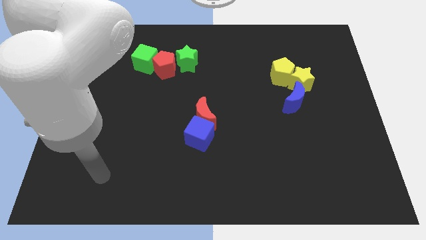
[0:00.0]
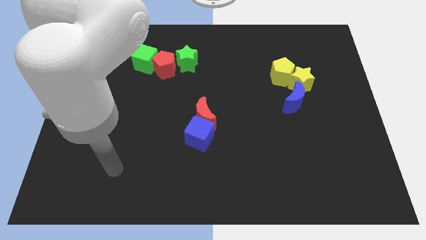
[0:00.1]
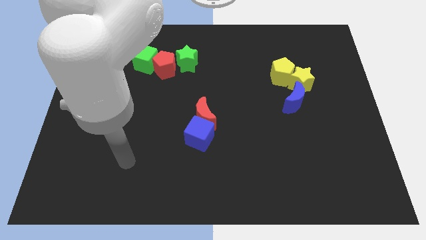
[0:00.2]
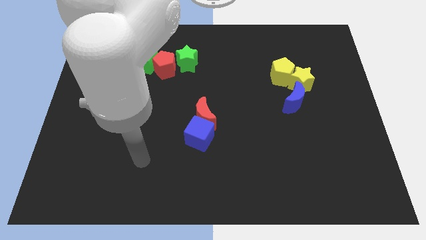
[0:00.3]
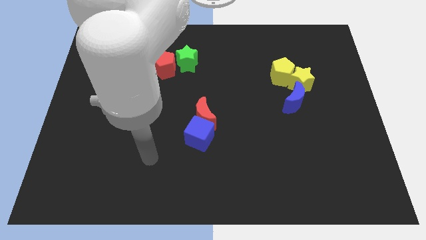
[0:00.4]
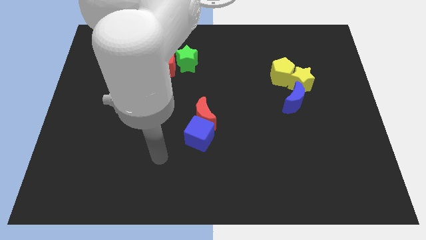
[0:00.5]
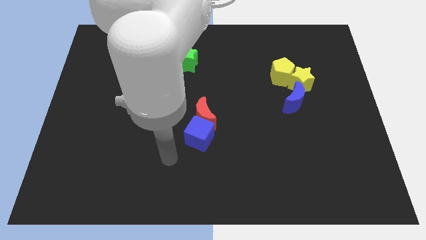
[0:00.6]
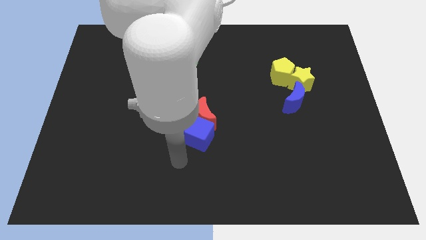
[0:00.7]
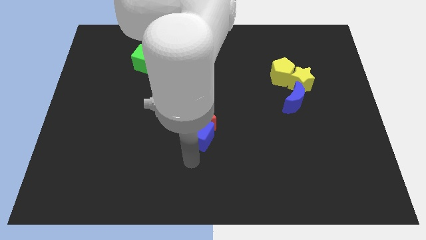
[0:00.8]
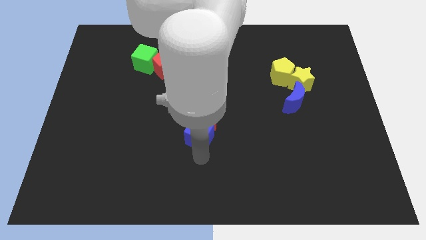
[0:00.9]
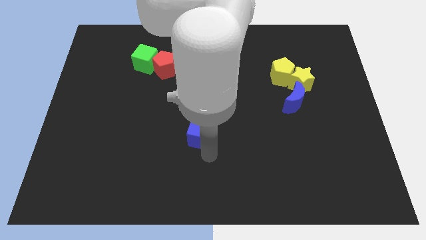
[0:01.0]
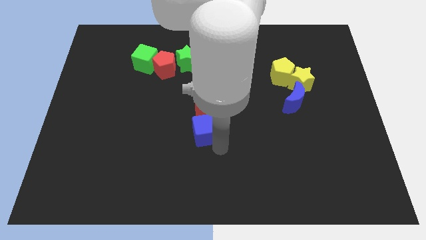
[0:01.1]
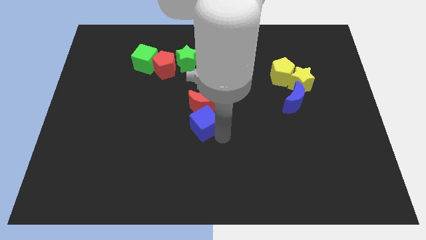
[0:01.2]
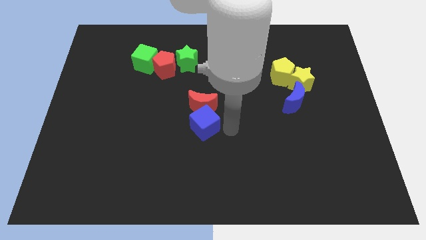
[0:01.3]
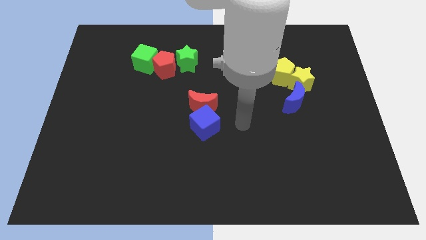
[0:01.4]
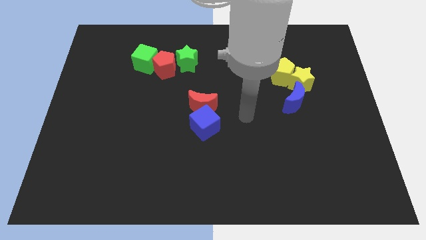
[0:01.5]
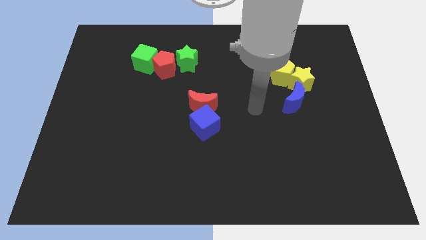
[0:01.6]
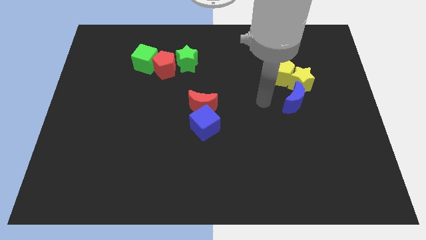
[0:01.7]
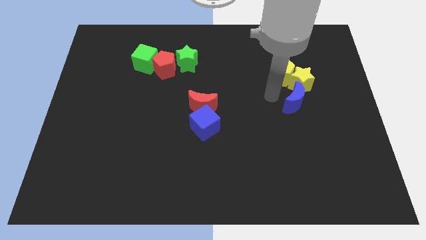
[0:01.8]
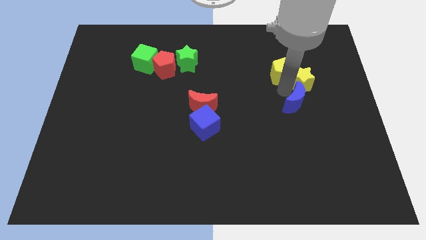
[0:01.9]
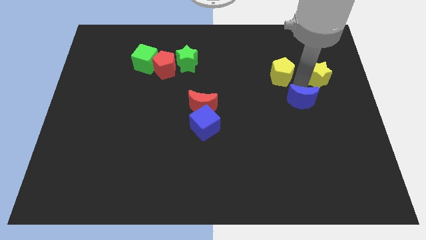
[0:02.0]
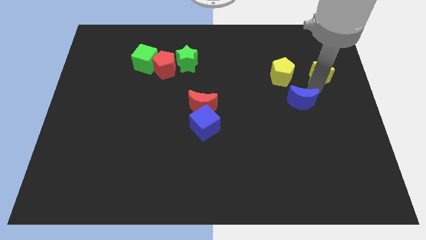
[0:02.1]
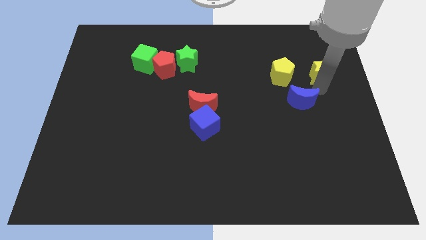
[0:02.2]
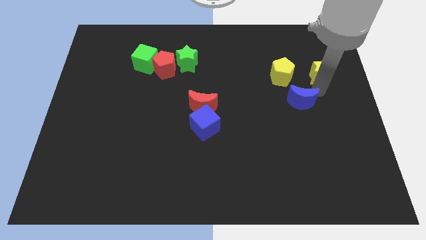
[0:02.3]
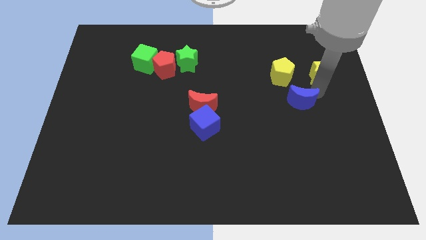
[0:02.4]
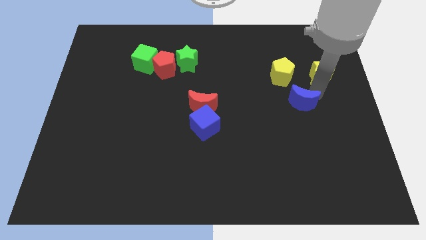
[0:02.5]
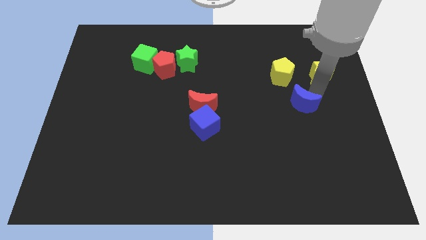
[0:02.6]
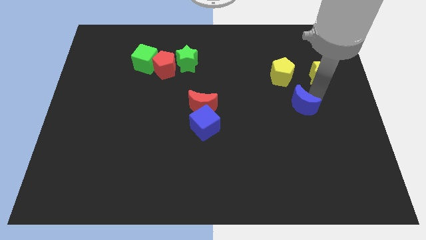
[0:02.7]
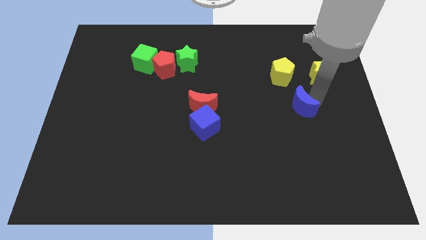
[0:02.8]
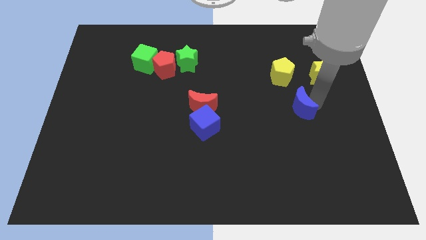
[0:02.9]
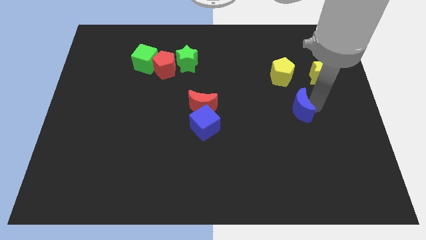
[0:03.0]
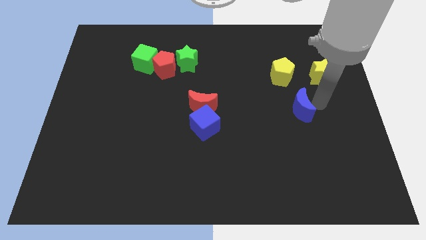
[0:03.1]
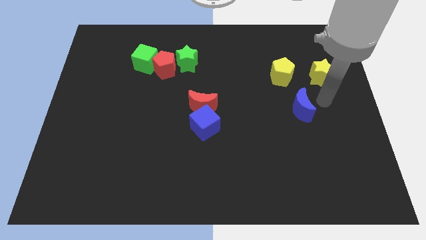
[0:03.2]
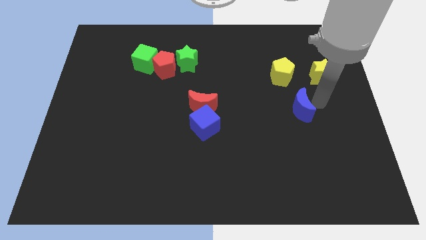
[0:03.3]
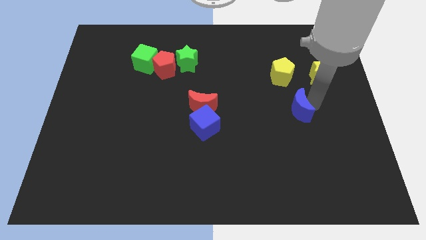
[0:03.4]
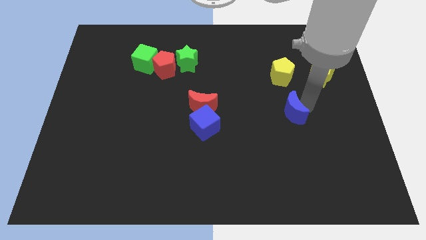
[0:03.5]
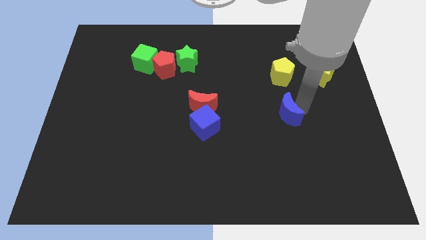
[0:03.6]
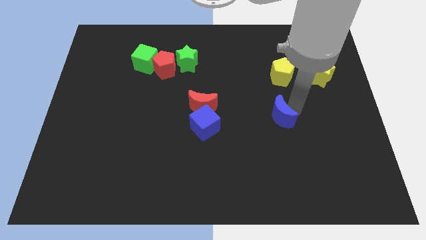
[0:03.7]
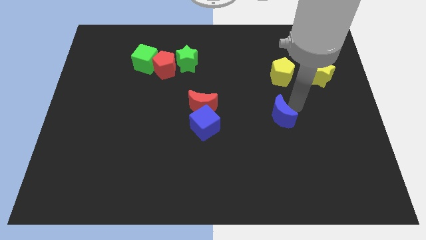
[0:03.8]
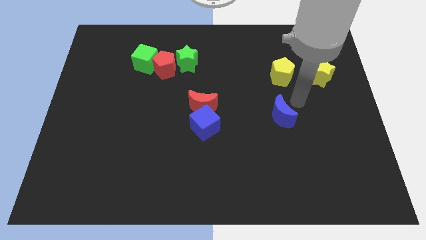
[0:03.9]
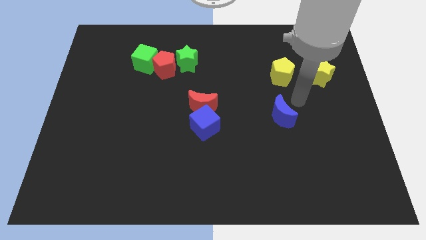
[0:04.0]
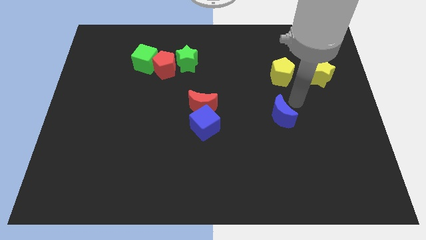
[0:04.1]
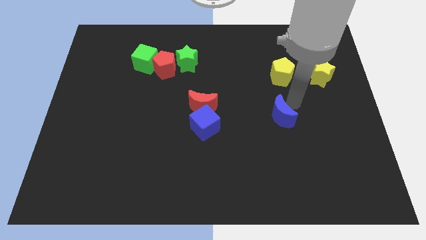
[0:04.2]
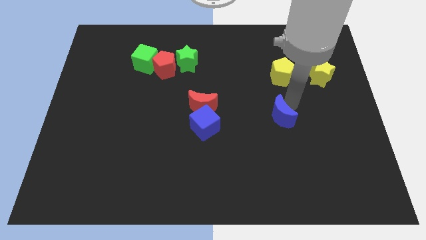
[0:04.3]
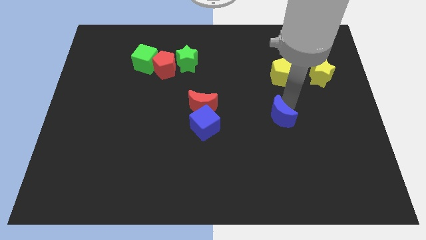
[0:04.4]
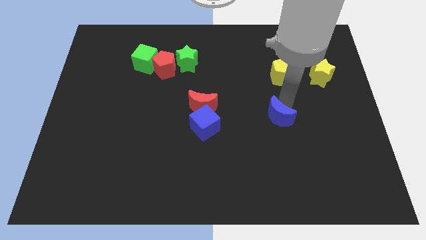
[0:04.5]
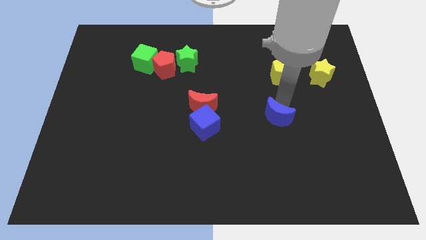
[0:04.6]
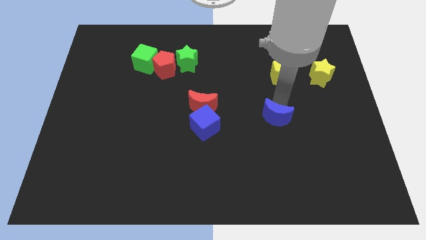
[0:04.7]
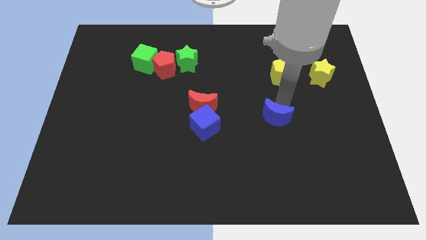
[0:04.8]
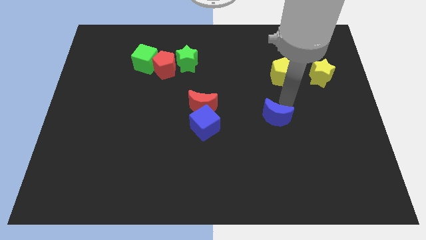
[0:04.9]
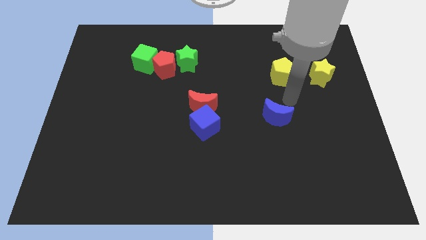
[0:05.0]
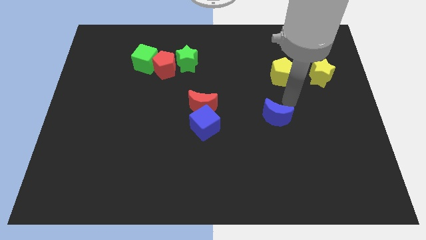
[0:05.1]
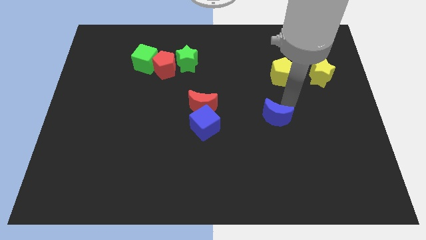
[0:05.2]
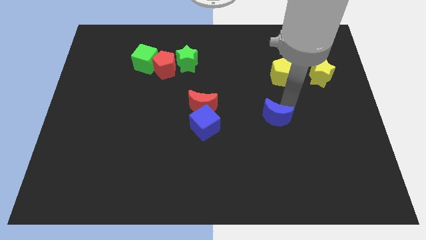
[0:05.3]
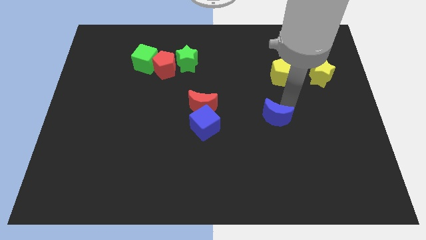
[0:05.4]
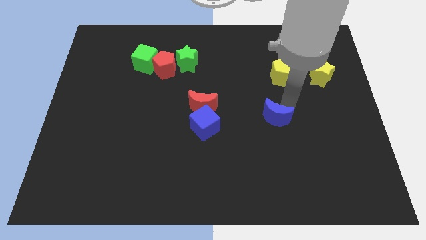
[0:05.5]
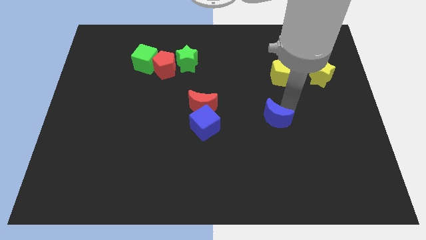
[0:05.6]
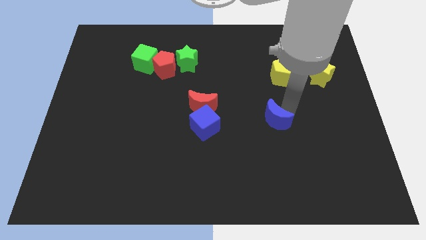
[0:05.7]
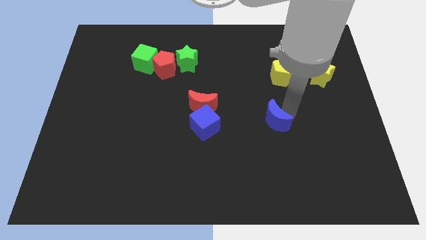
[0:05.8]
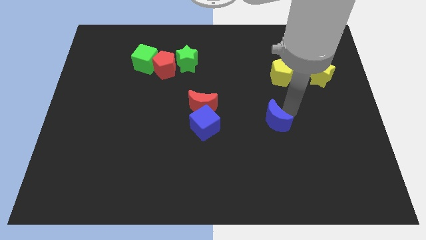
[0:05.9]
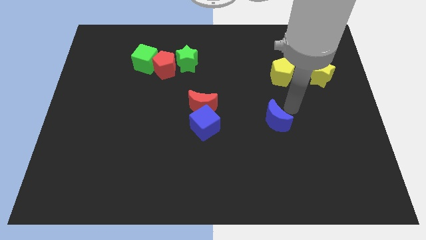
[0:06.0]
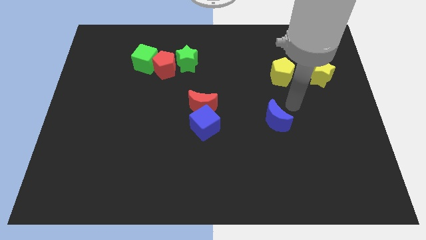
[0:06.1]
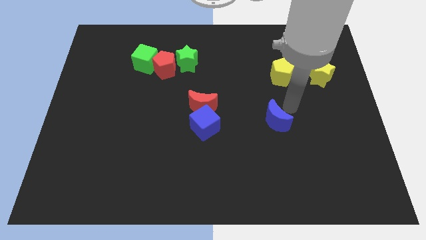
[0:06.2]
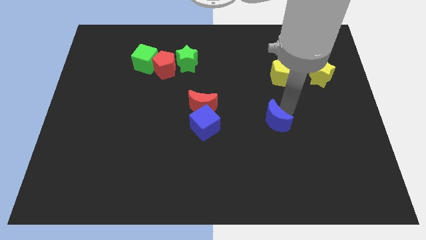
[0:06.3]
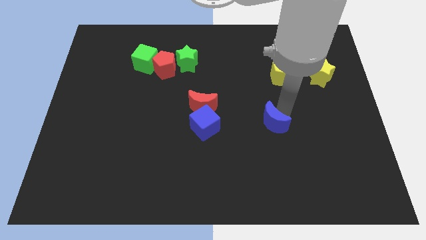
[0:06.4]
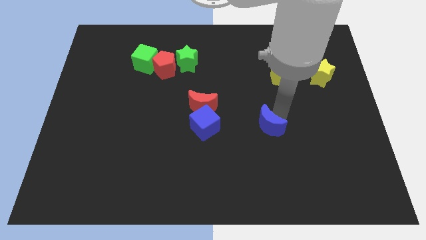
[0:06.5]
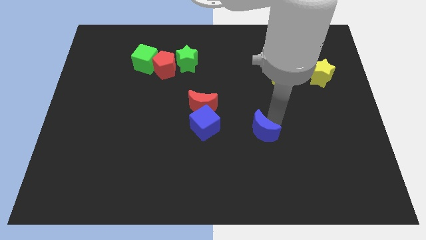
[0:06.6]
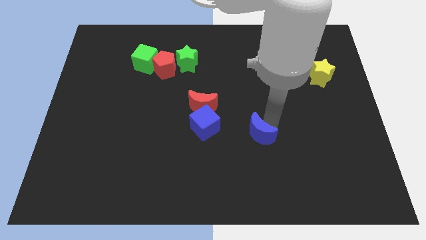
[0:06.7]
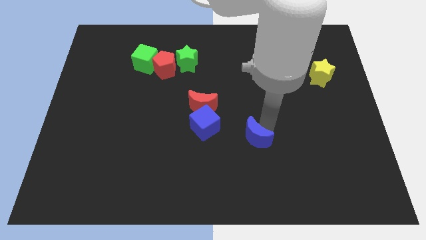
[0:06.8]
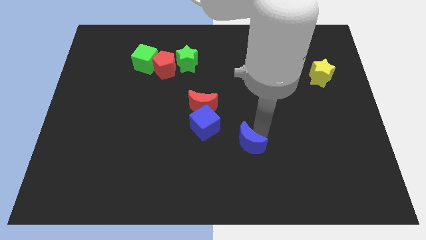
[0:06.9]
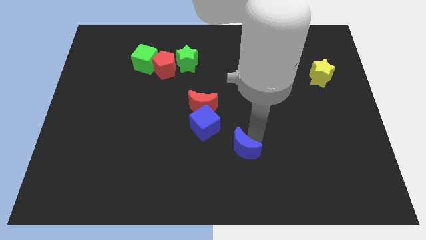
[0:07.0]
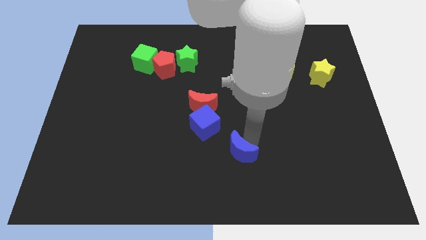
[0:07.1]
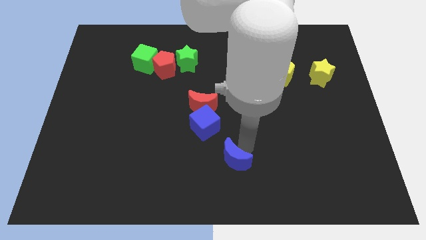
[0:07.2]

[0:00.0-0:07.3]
put the blue moon to the bottom side
